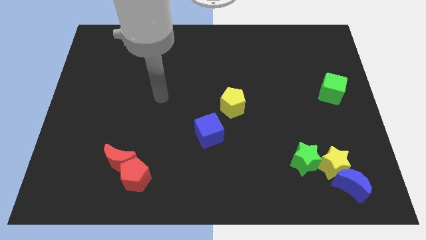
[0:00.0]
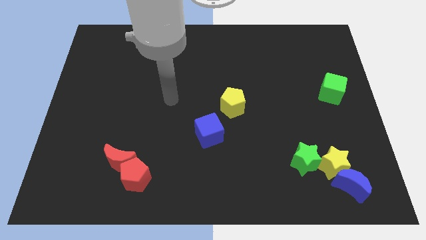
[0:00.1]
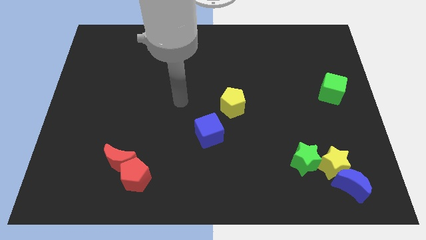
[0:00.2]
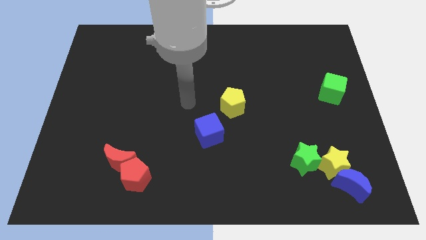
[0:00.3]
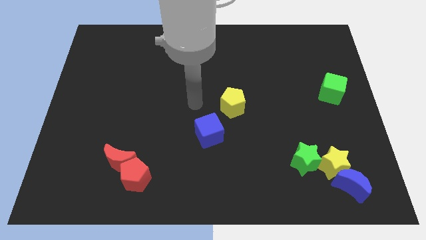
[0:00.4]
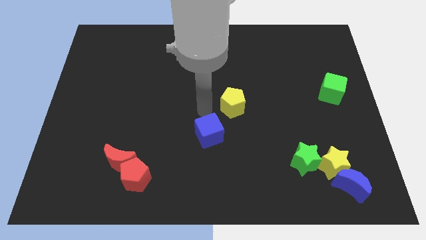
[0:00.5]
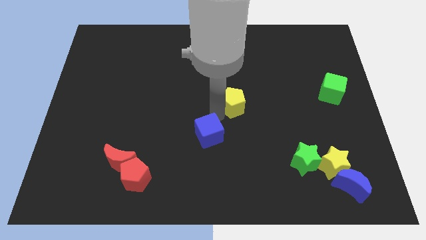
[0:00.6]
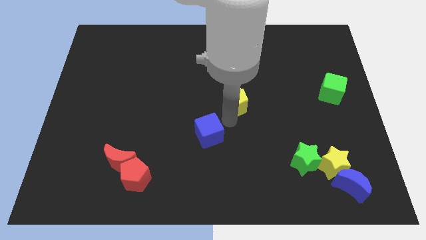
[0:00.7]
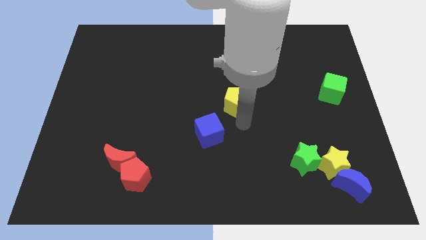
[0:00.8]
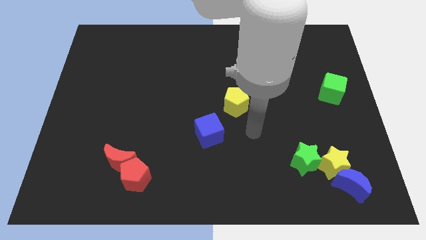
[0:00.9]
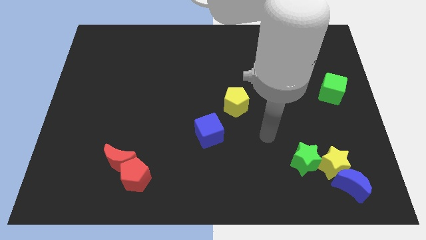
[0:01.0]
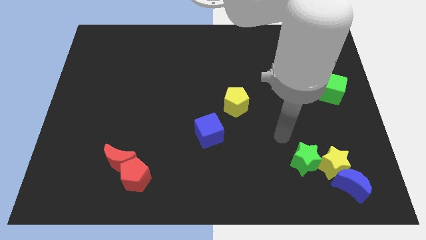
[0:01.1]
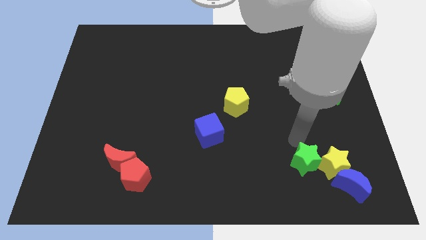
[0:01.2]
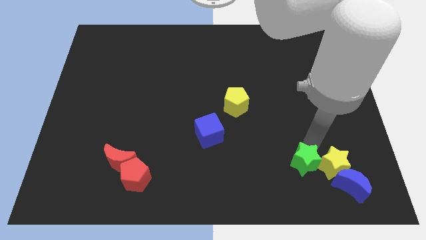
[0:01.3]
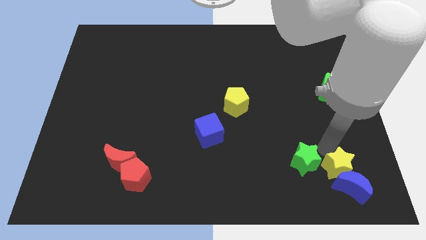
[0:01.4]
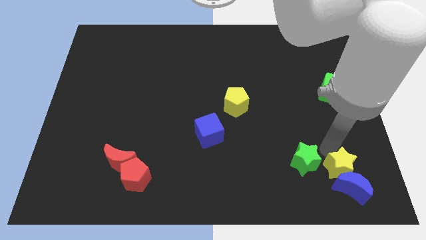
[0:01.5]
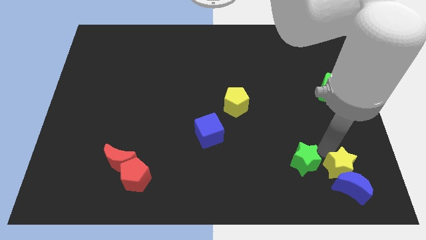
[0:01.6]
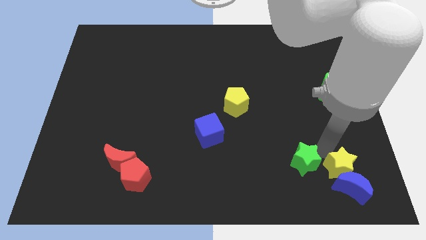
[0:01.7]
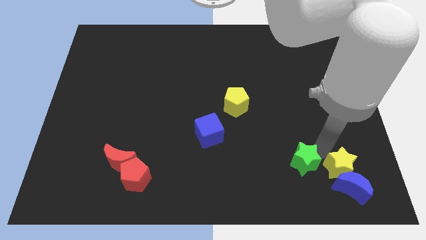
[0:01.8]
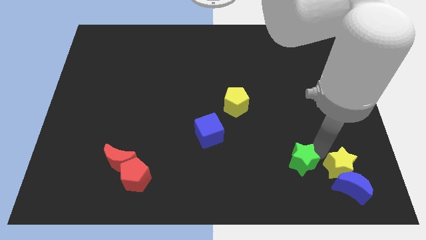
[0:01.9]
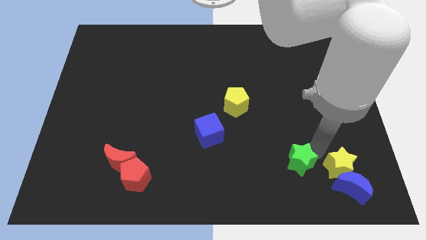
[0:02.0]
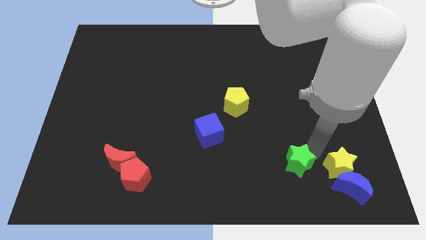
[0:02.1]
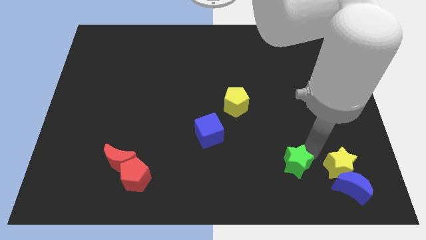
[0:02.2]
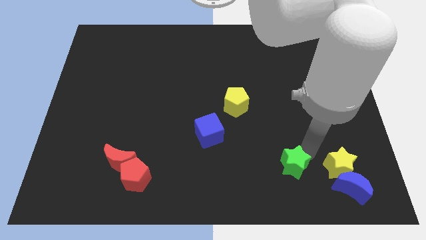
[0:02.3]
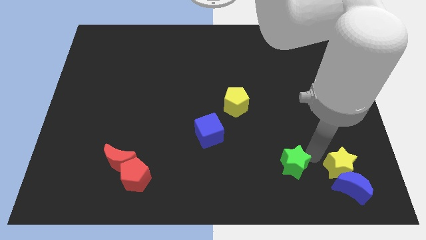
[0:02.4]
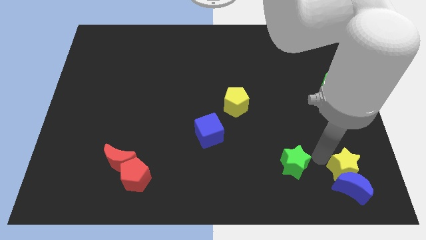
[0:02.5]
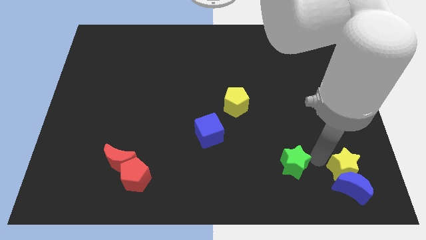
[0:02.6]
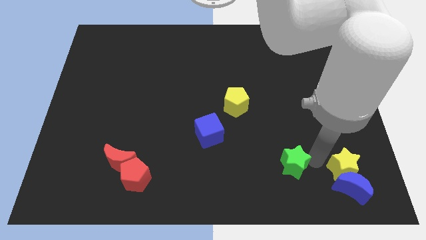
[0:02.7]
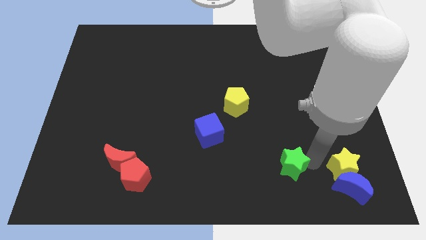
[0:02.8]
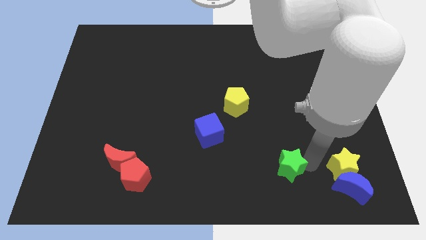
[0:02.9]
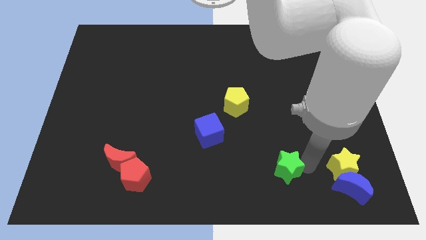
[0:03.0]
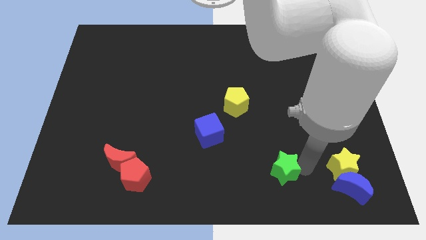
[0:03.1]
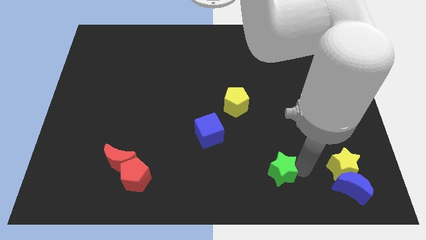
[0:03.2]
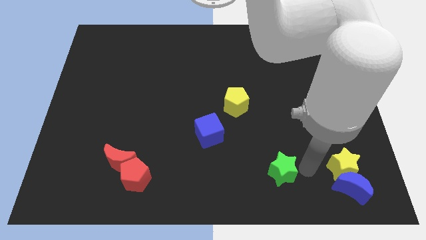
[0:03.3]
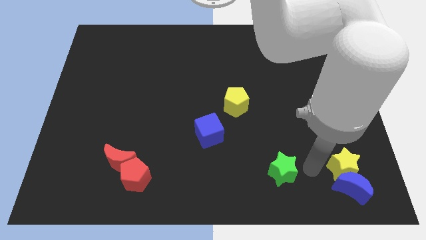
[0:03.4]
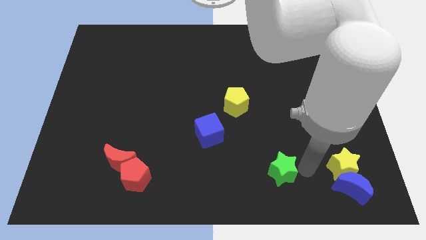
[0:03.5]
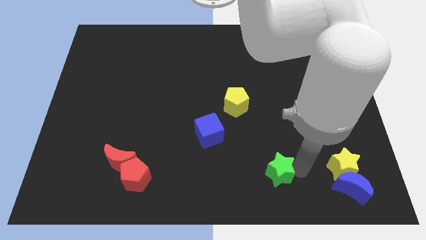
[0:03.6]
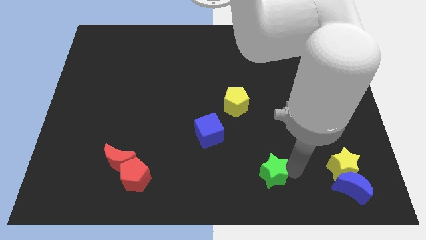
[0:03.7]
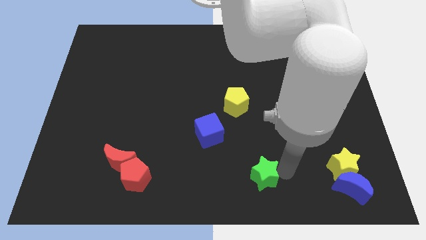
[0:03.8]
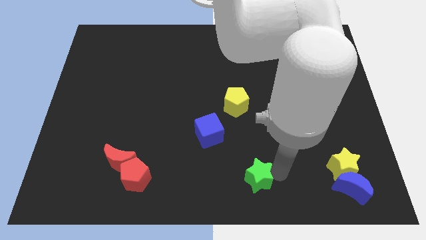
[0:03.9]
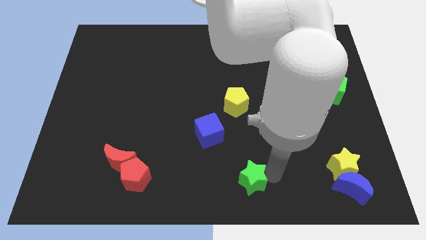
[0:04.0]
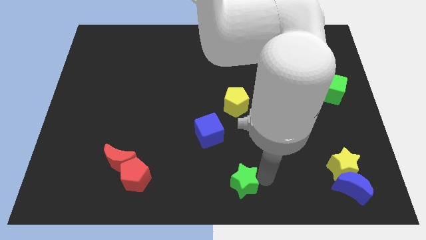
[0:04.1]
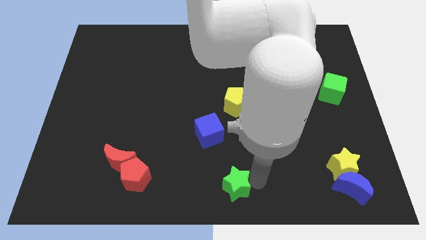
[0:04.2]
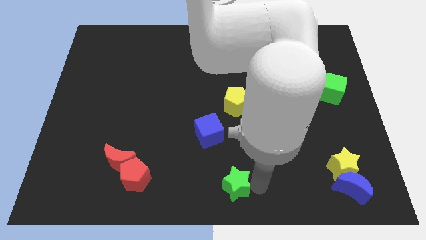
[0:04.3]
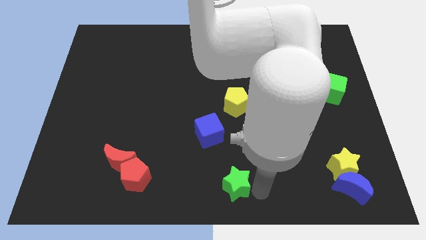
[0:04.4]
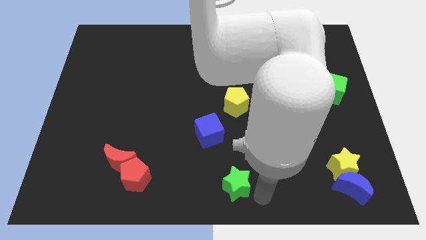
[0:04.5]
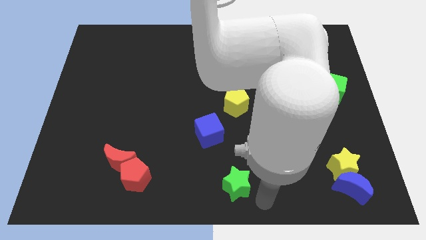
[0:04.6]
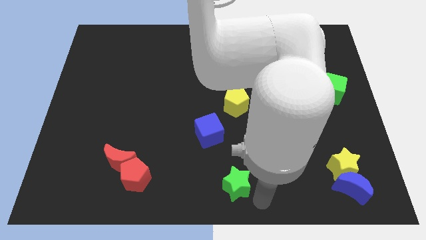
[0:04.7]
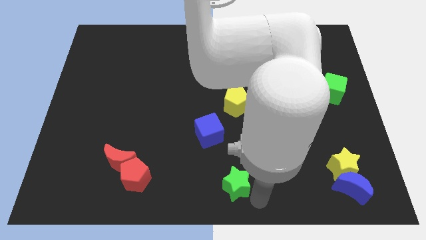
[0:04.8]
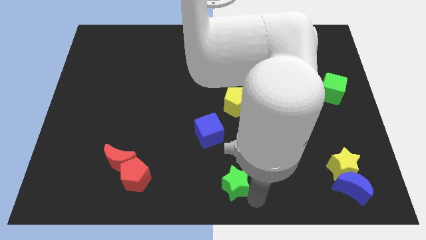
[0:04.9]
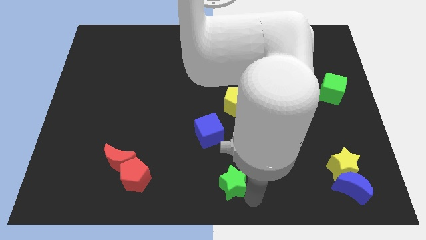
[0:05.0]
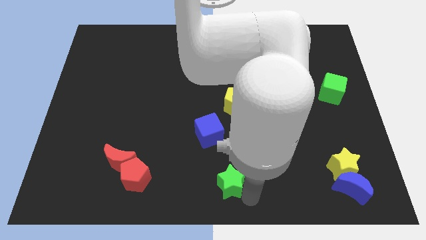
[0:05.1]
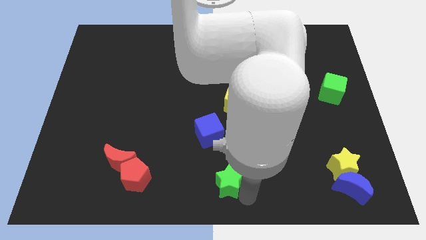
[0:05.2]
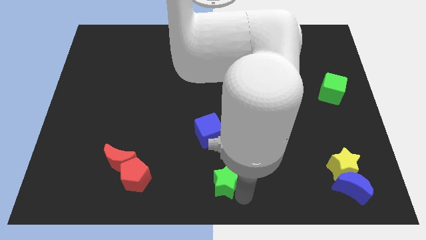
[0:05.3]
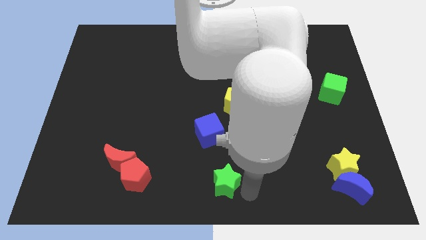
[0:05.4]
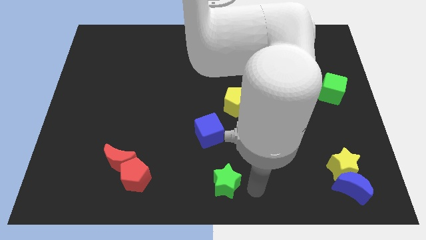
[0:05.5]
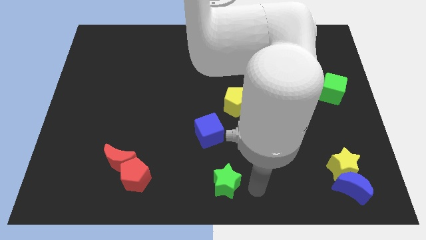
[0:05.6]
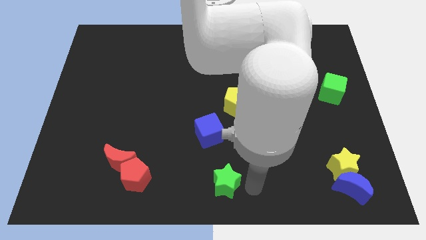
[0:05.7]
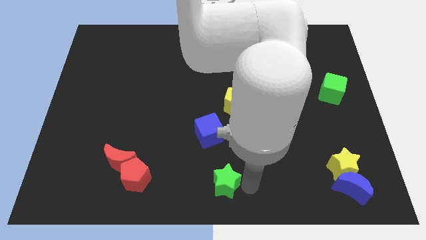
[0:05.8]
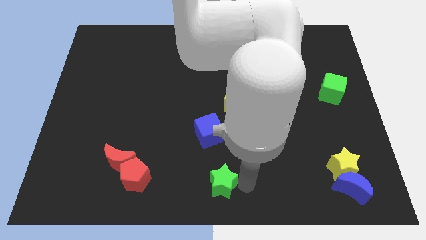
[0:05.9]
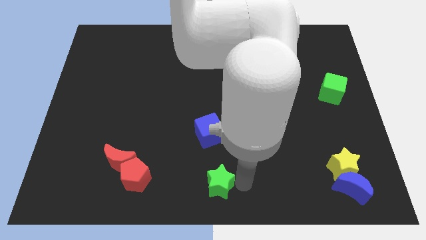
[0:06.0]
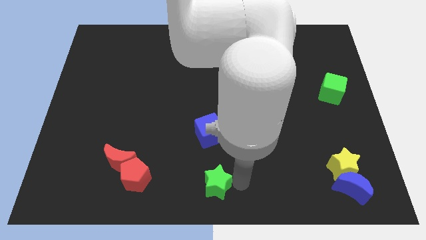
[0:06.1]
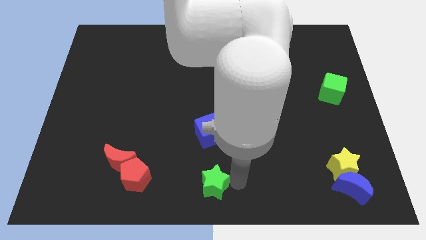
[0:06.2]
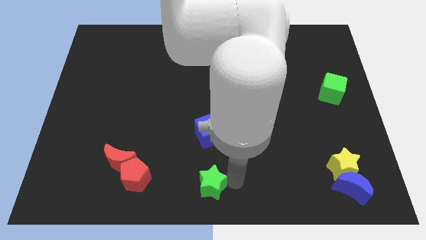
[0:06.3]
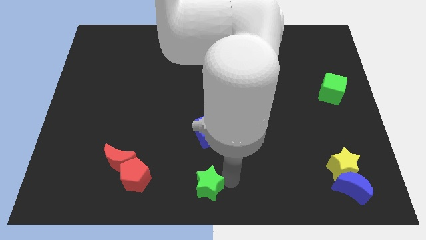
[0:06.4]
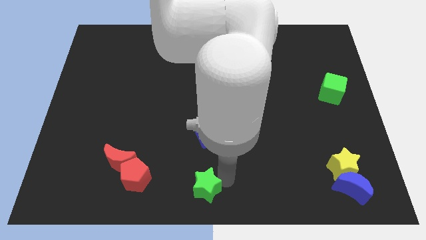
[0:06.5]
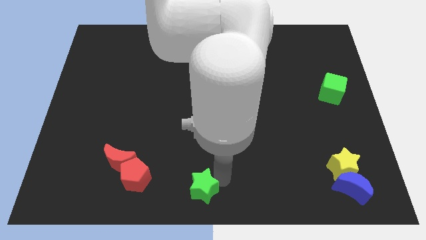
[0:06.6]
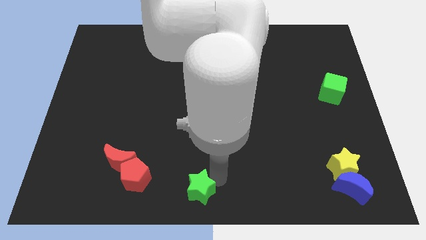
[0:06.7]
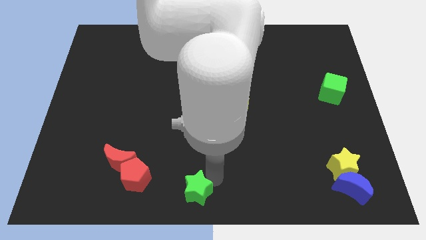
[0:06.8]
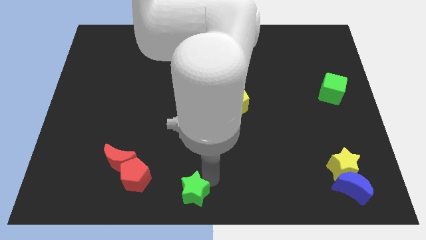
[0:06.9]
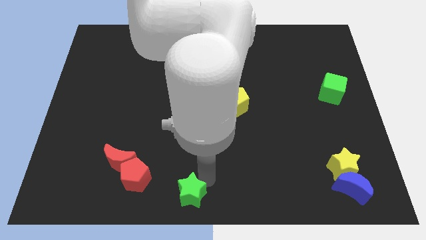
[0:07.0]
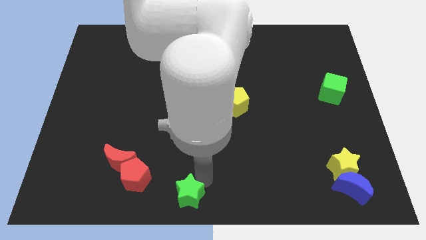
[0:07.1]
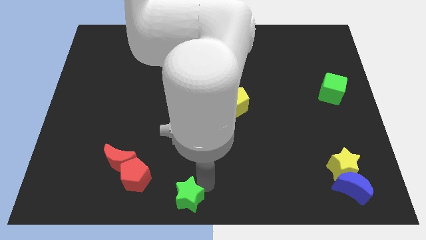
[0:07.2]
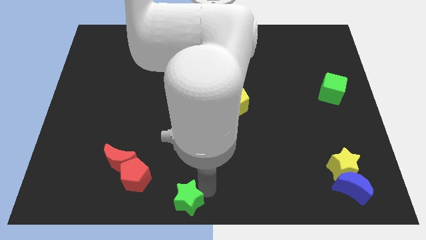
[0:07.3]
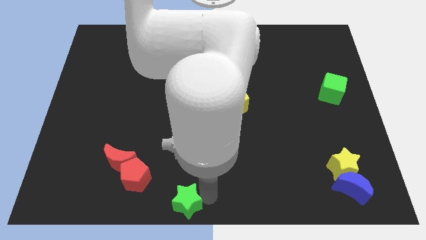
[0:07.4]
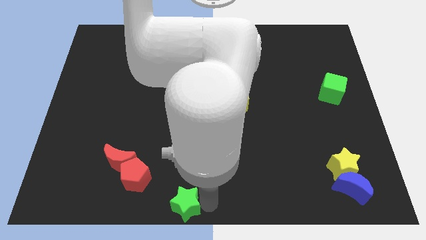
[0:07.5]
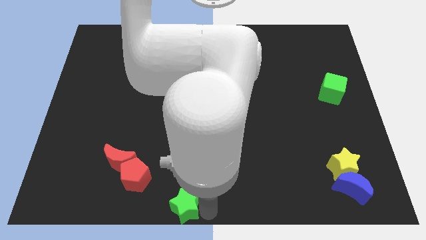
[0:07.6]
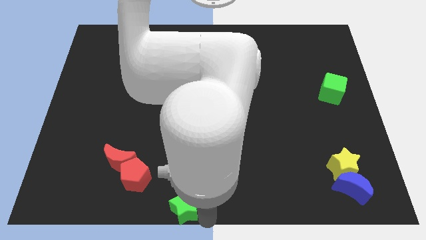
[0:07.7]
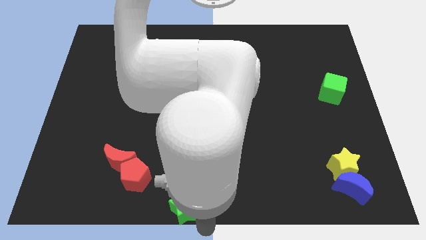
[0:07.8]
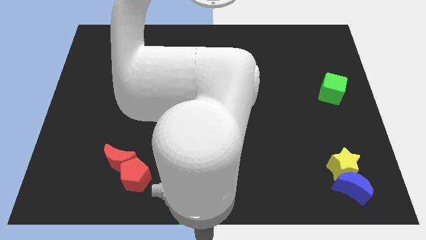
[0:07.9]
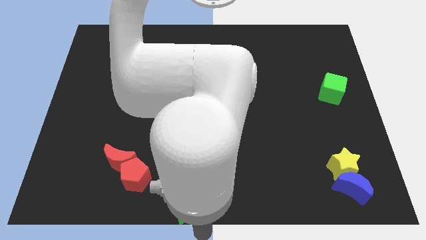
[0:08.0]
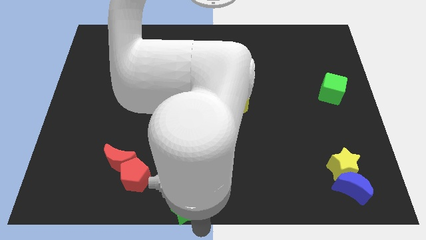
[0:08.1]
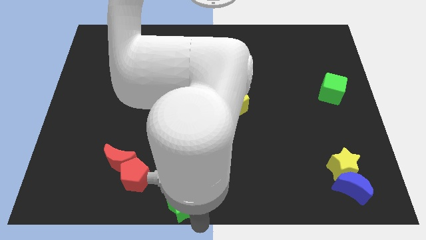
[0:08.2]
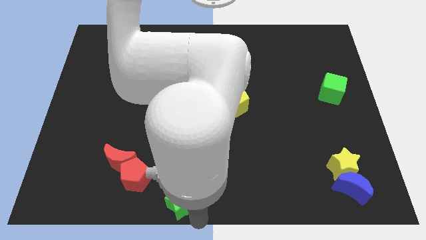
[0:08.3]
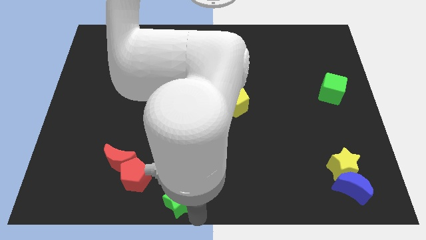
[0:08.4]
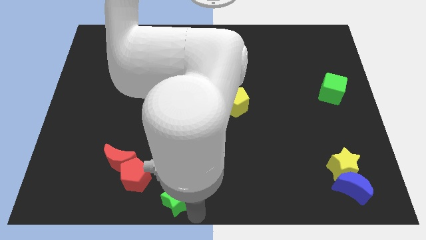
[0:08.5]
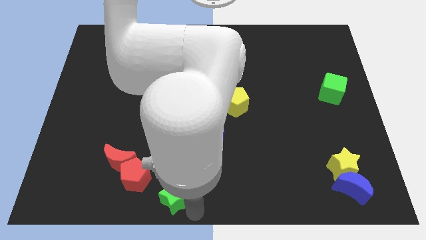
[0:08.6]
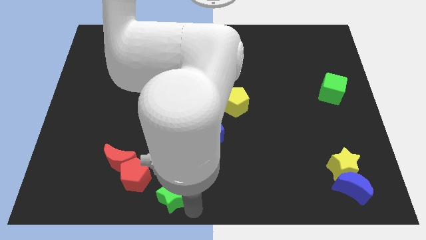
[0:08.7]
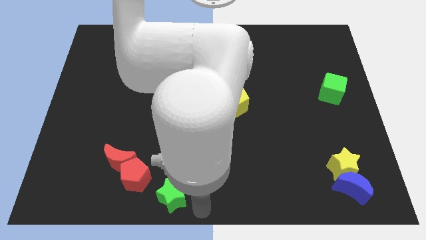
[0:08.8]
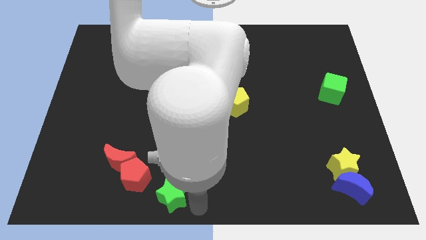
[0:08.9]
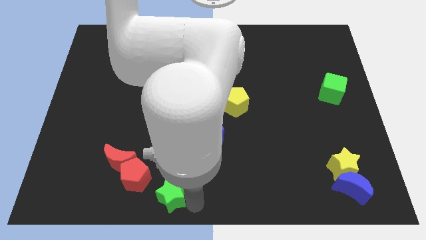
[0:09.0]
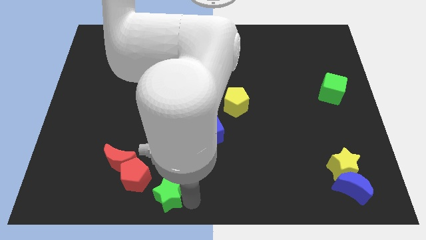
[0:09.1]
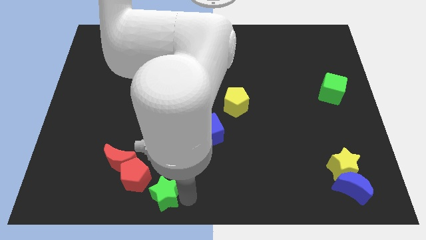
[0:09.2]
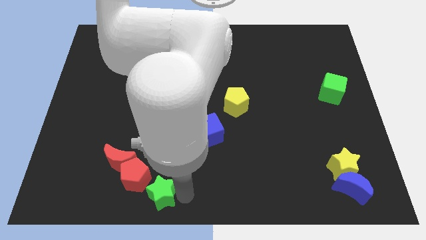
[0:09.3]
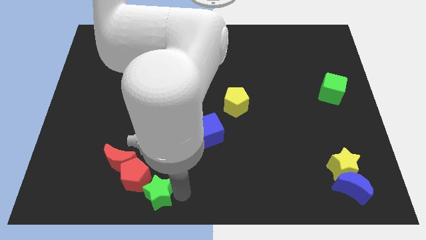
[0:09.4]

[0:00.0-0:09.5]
push the green star to the red pentagon
